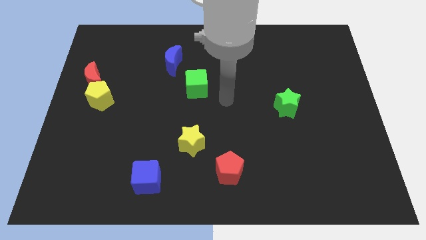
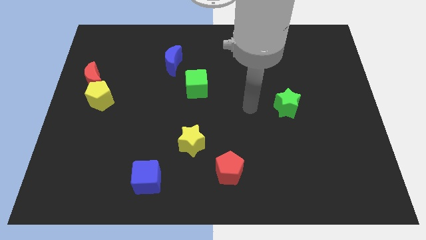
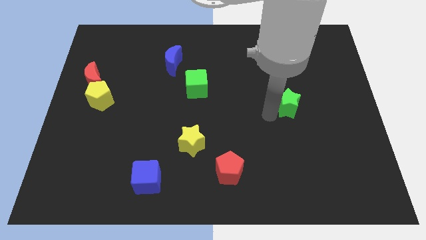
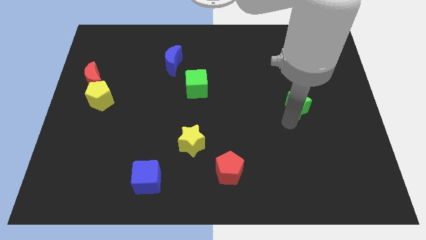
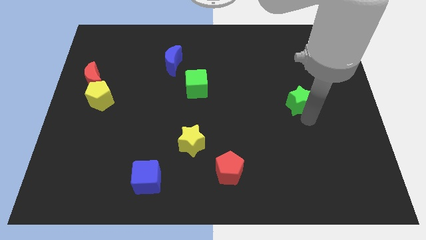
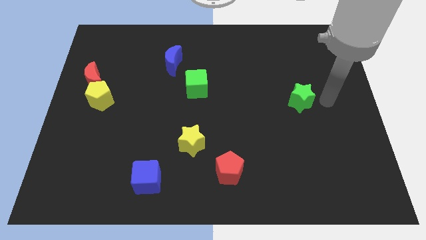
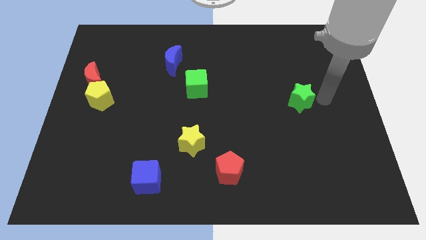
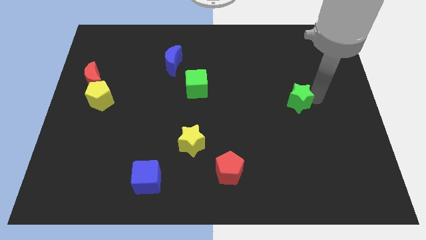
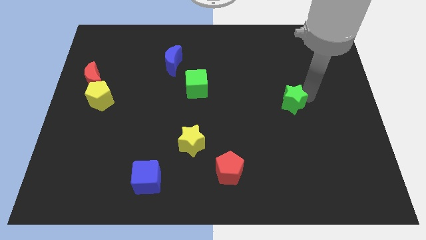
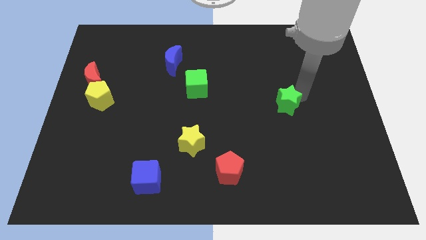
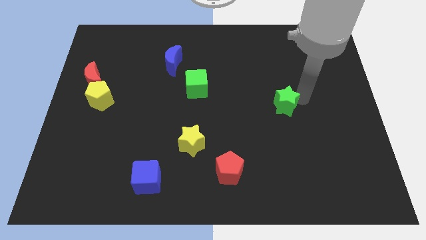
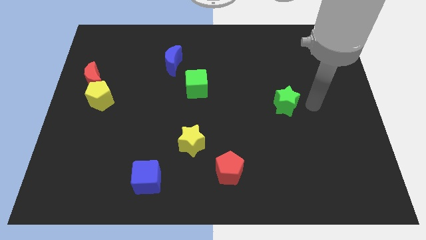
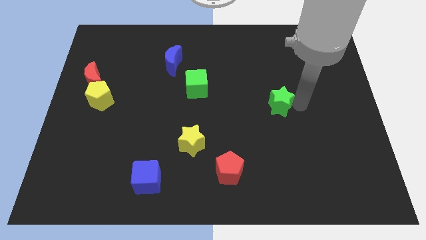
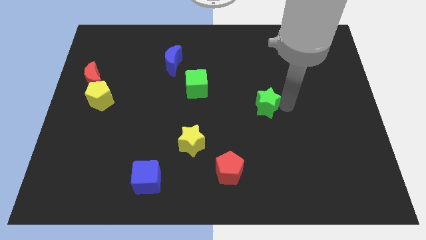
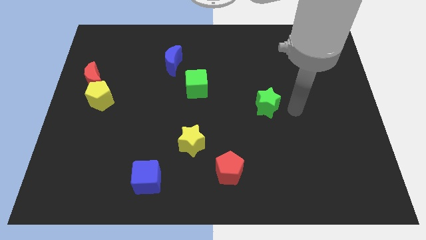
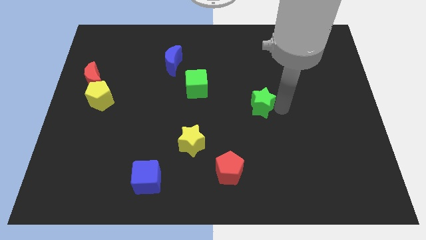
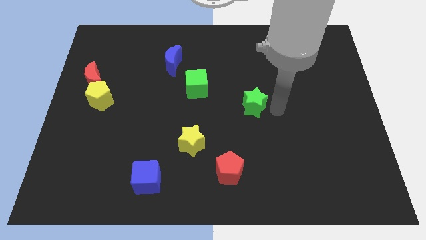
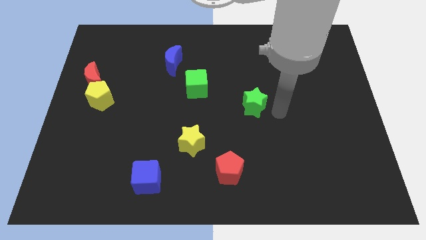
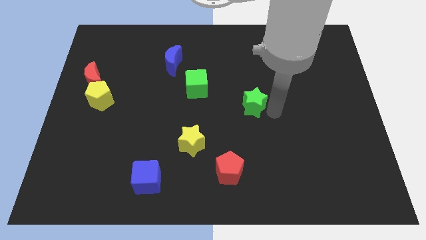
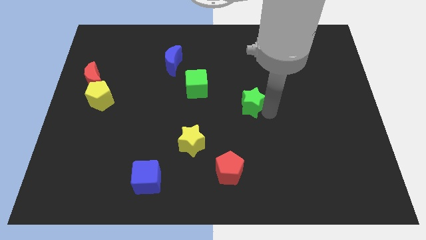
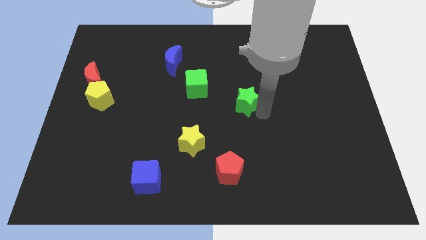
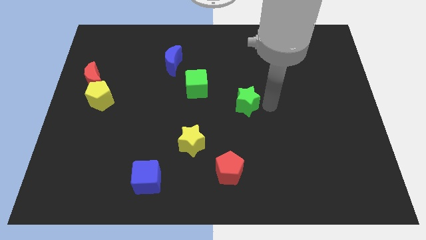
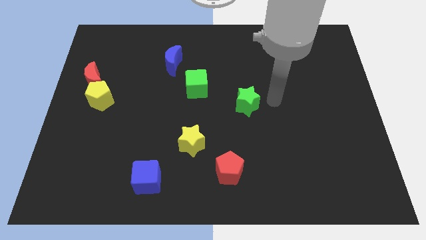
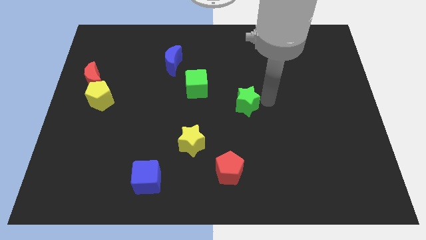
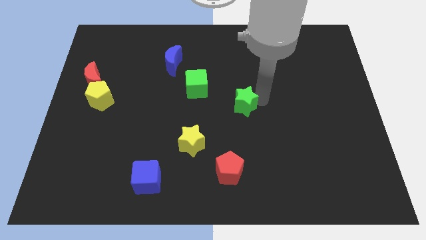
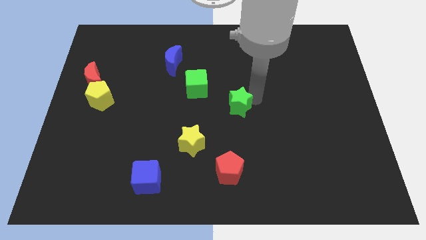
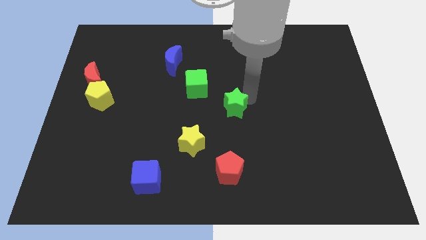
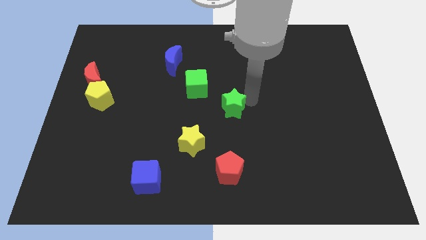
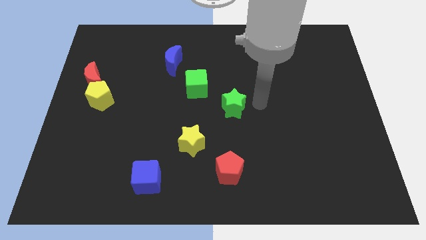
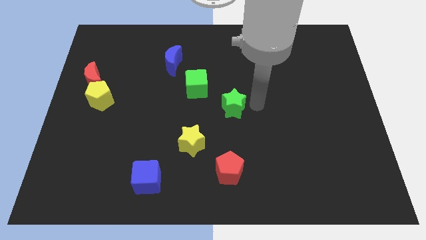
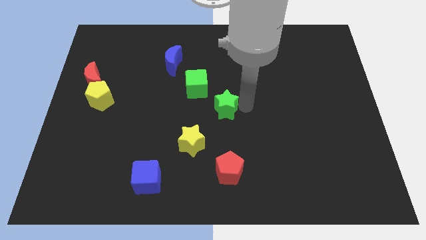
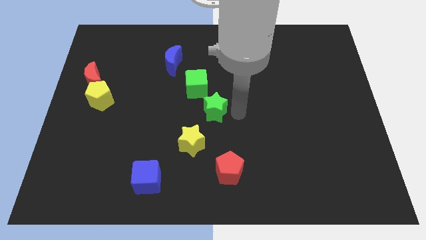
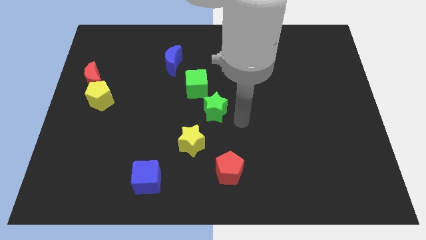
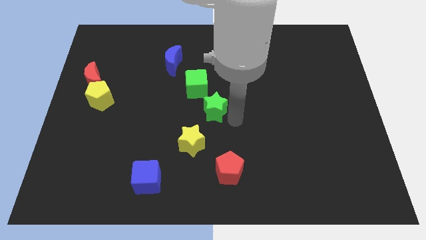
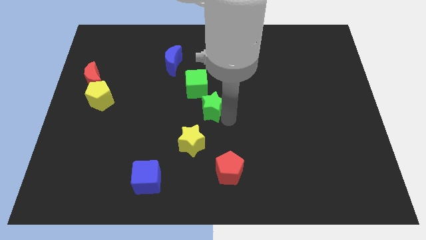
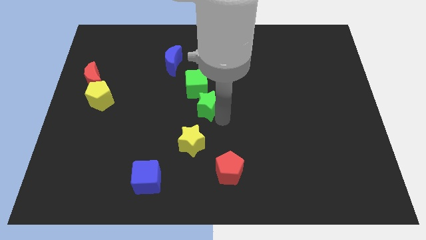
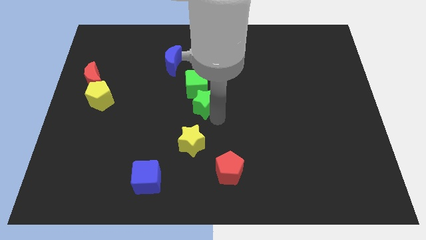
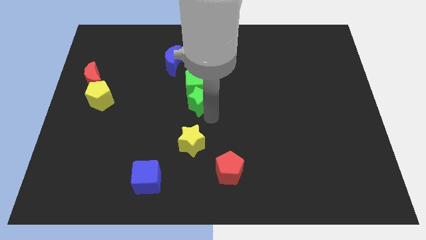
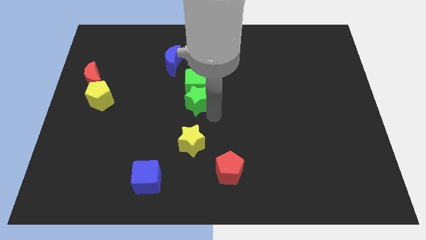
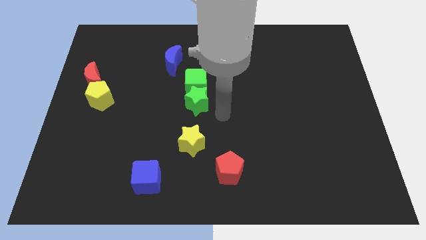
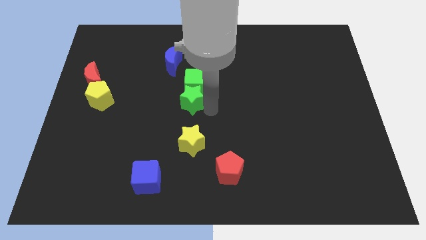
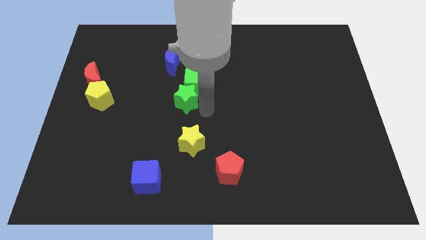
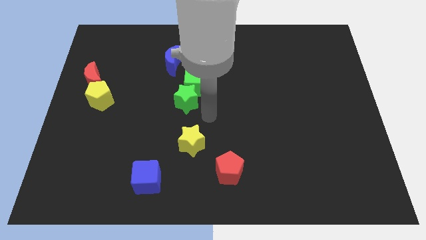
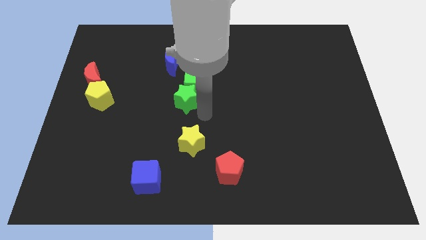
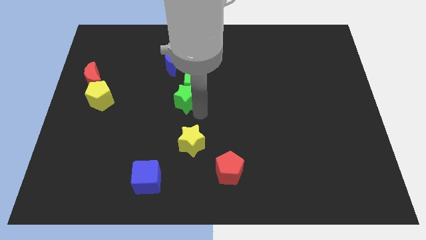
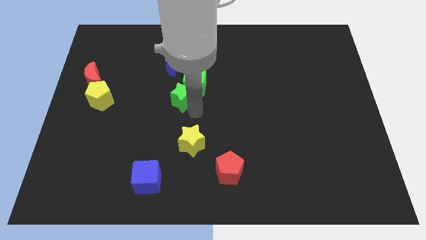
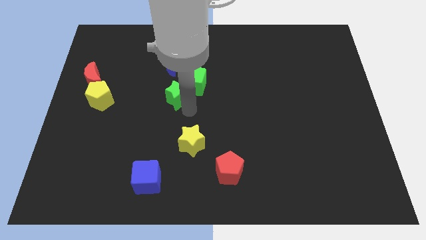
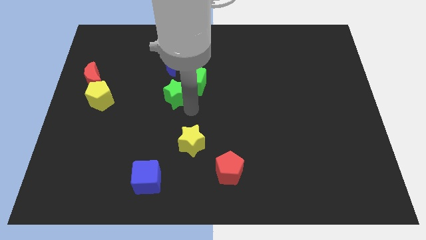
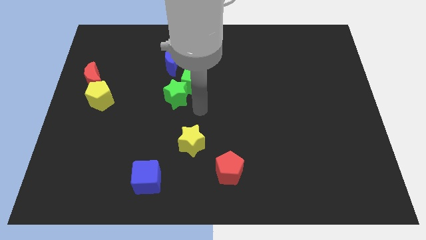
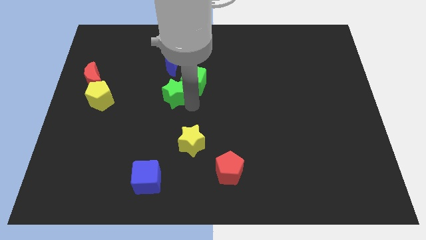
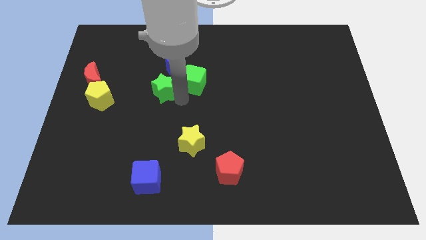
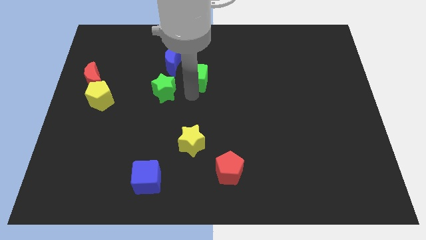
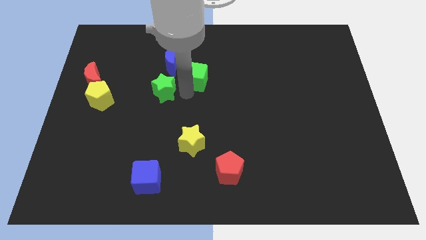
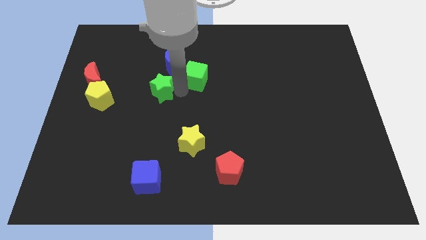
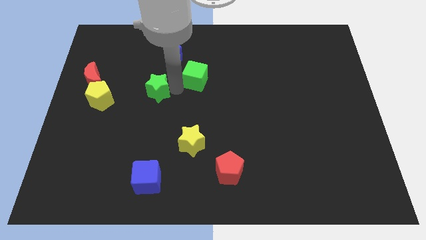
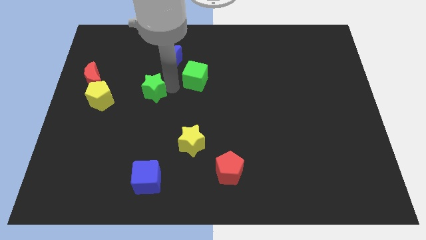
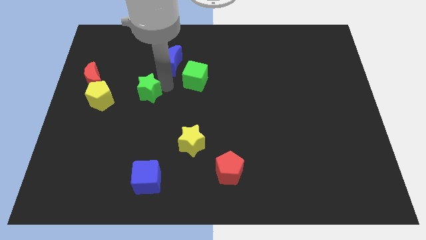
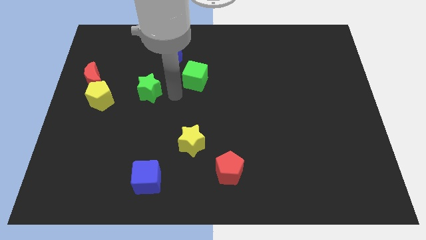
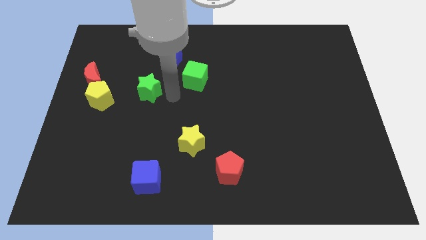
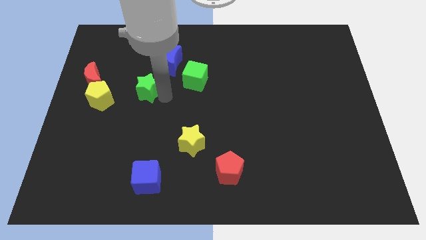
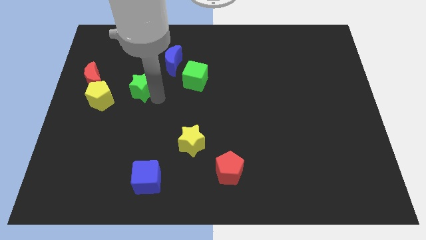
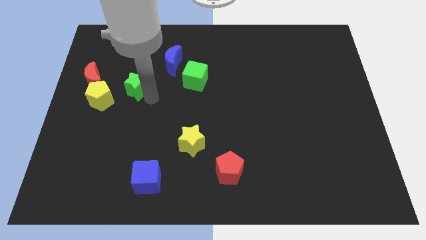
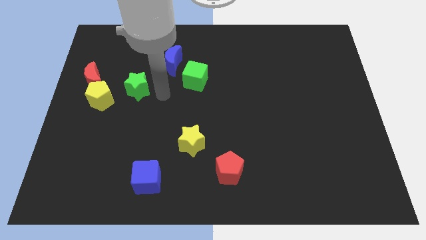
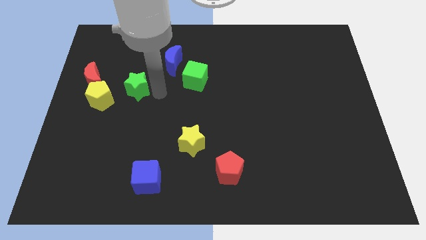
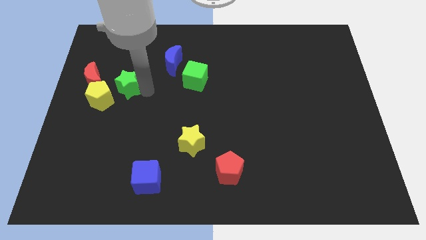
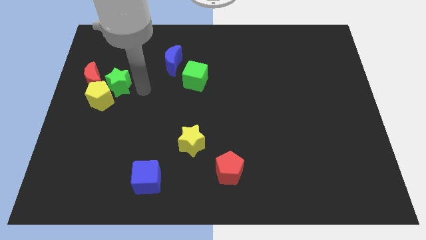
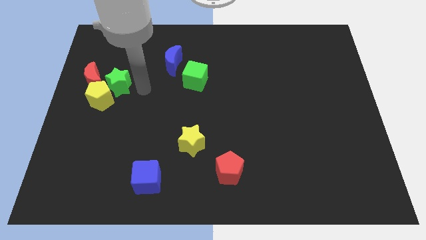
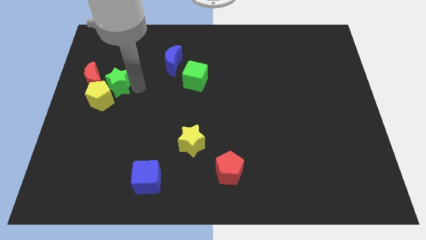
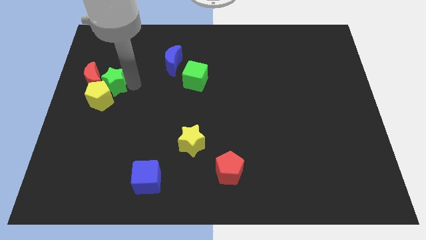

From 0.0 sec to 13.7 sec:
move the green star close to the red moon
